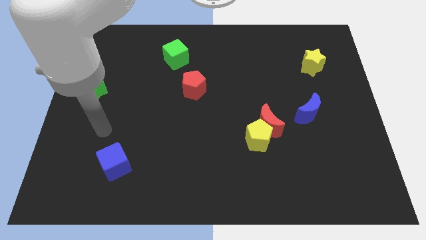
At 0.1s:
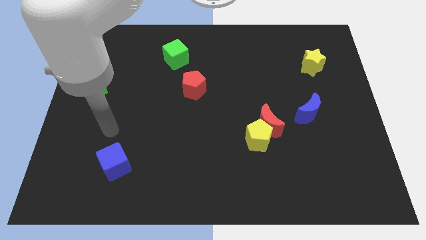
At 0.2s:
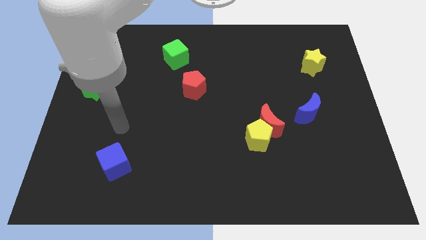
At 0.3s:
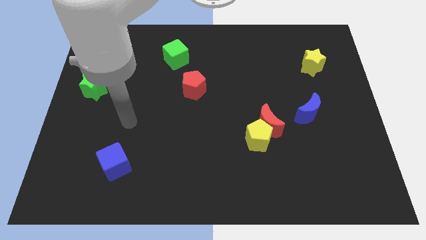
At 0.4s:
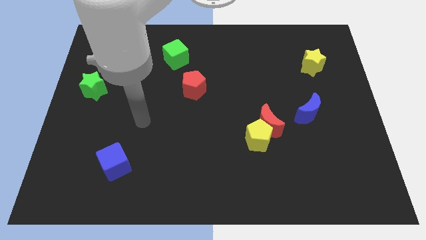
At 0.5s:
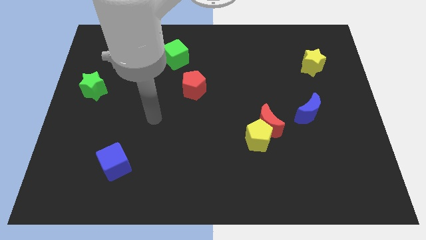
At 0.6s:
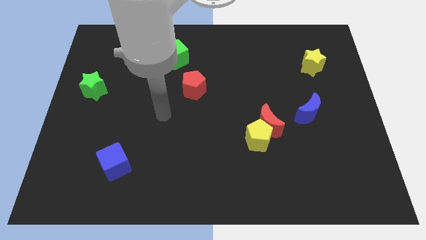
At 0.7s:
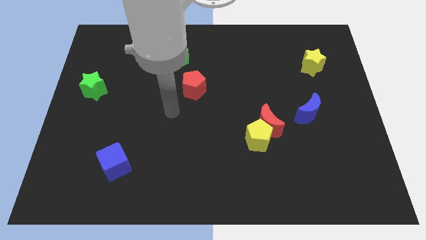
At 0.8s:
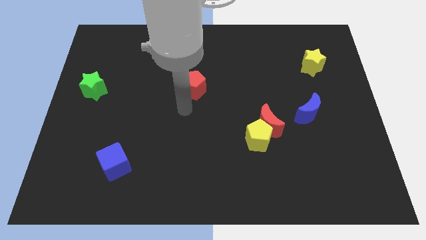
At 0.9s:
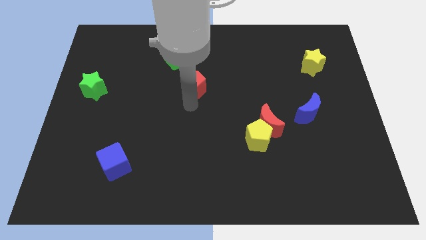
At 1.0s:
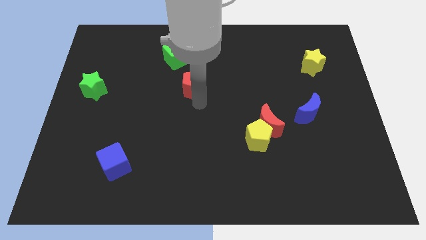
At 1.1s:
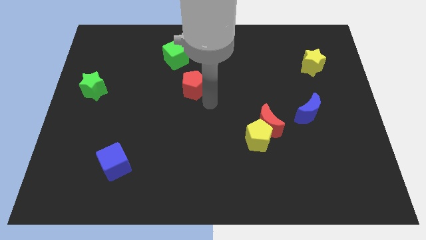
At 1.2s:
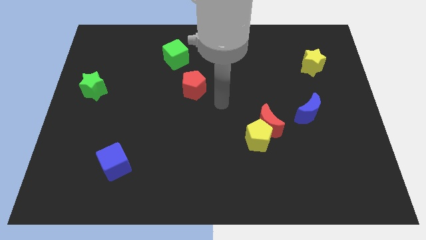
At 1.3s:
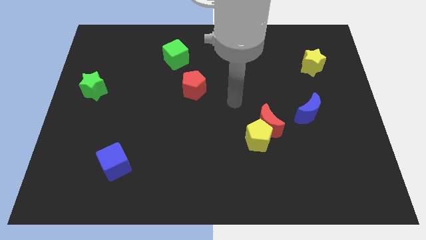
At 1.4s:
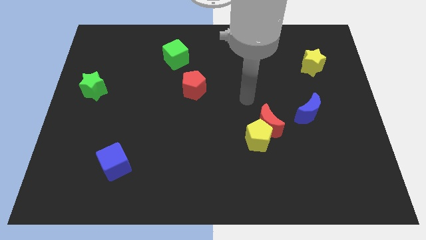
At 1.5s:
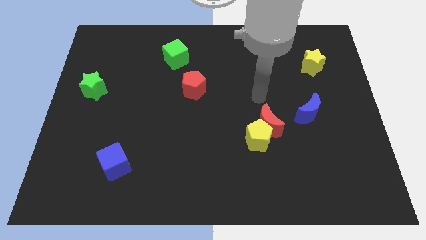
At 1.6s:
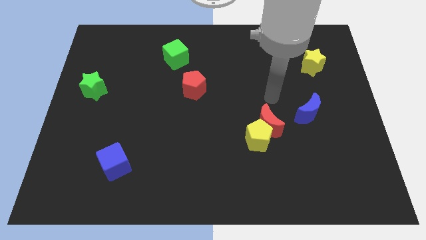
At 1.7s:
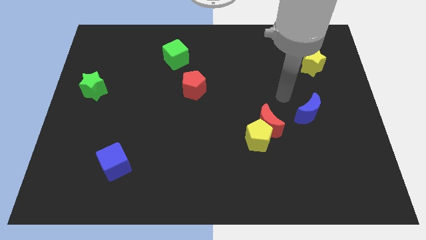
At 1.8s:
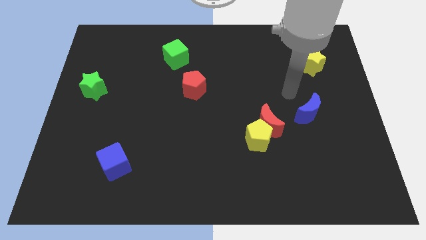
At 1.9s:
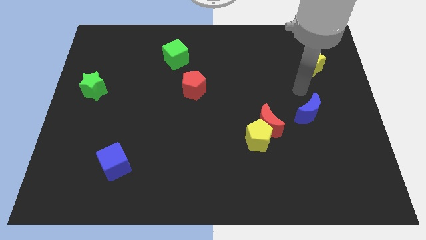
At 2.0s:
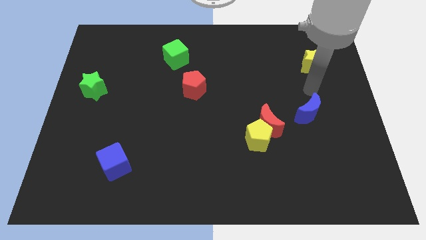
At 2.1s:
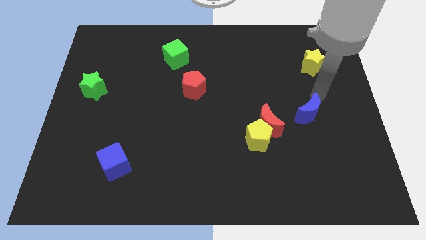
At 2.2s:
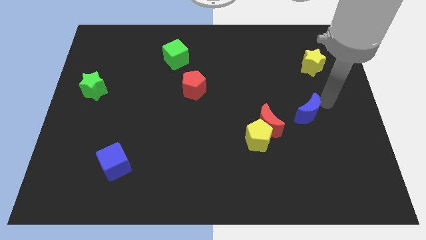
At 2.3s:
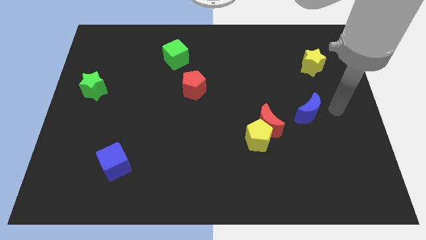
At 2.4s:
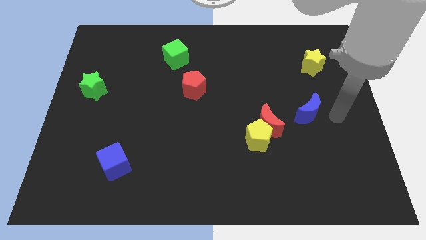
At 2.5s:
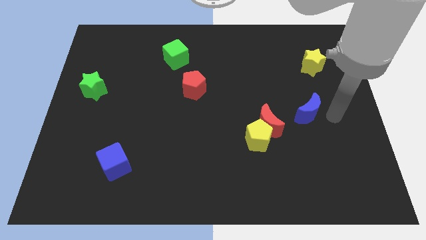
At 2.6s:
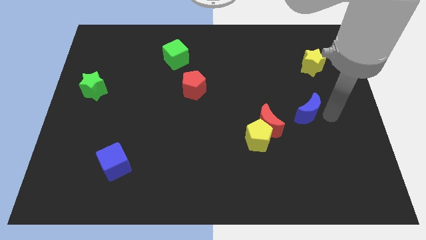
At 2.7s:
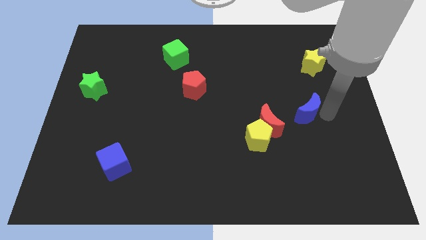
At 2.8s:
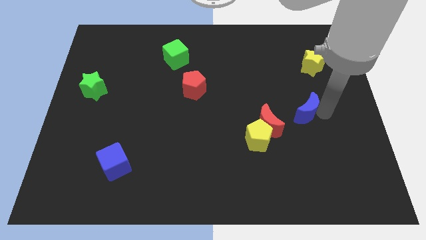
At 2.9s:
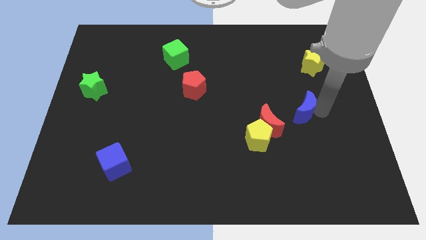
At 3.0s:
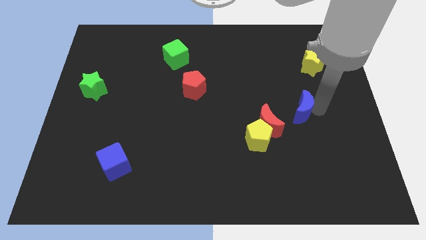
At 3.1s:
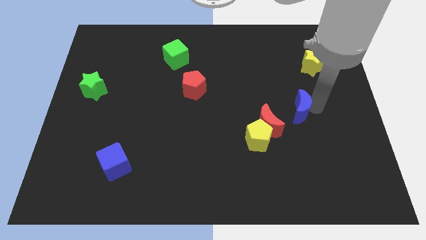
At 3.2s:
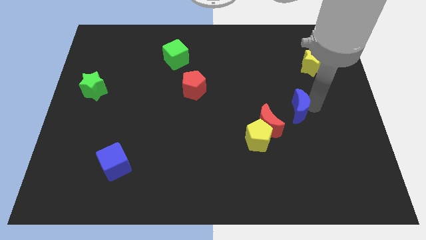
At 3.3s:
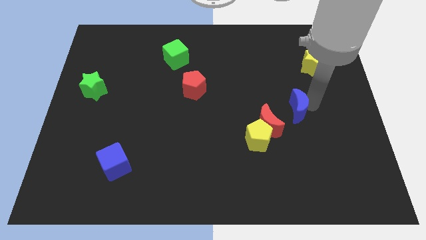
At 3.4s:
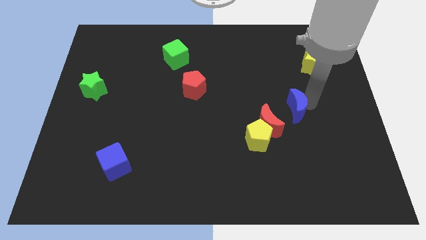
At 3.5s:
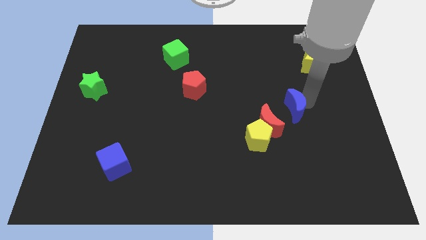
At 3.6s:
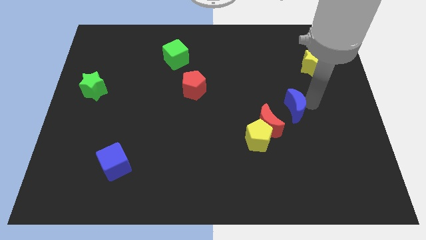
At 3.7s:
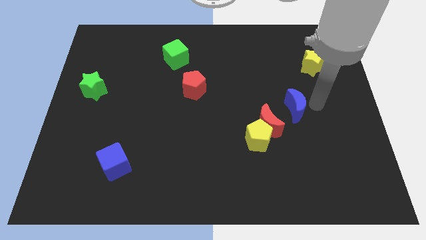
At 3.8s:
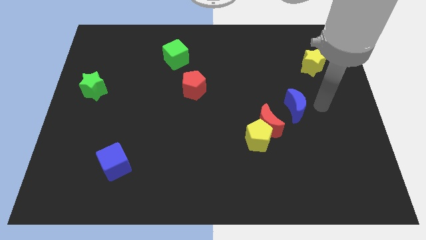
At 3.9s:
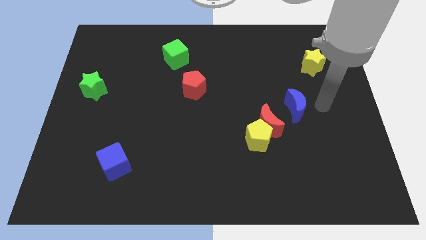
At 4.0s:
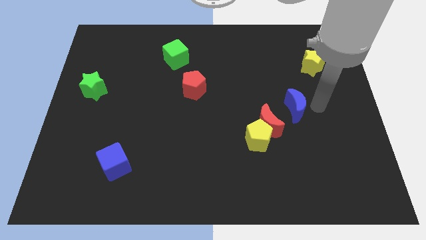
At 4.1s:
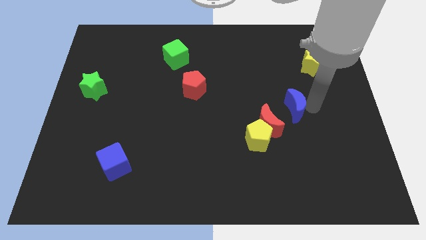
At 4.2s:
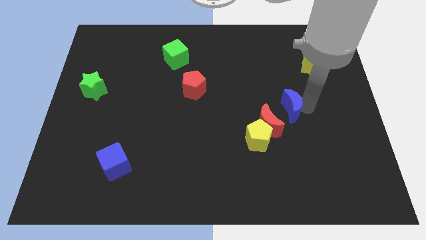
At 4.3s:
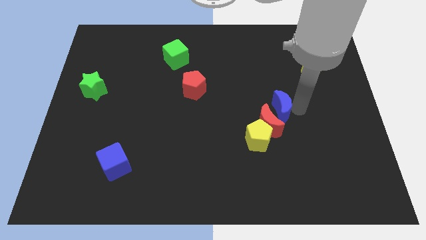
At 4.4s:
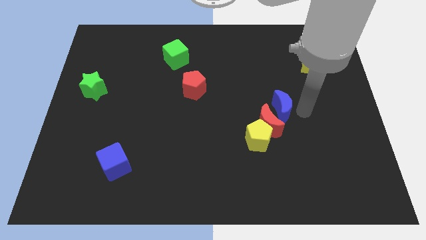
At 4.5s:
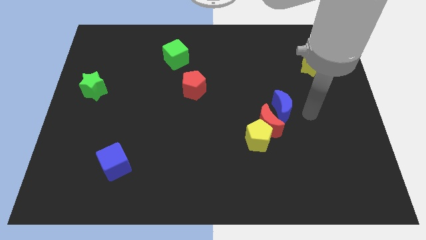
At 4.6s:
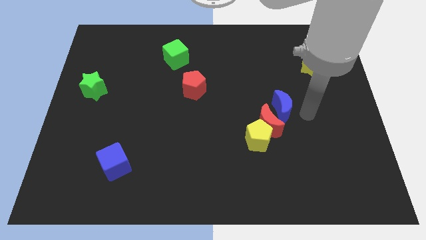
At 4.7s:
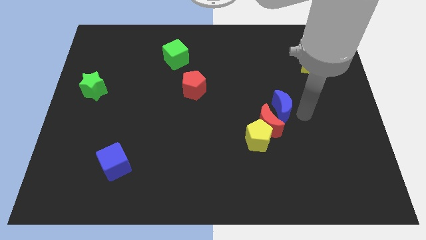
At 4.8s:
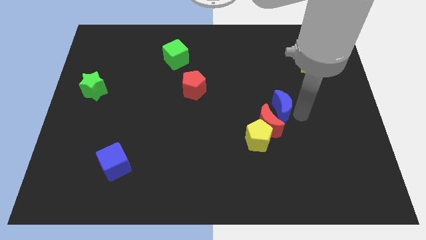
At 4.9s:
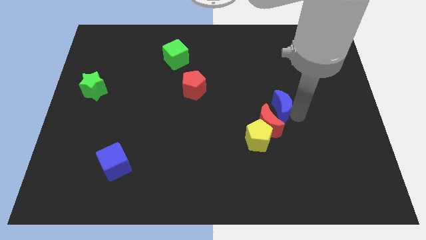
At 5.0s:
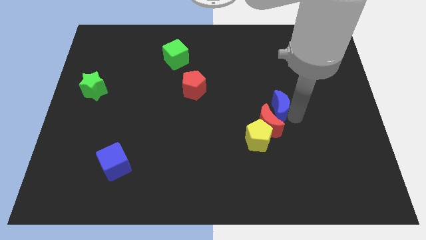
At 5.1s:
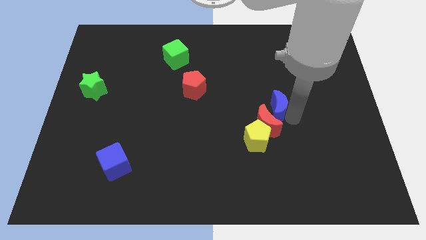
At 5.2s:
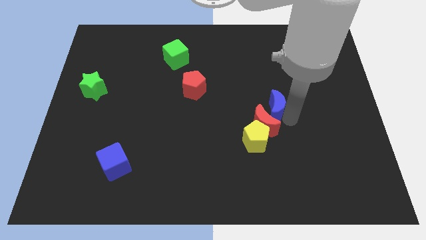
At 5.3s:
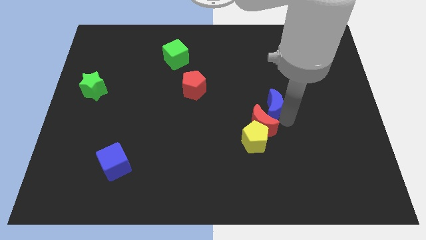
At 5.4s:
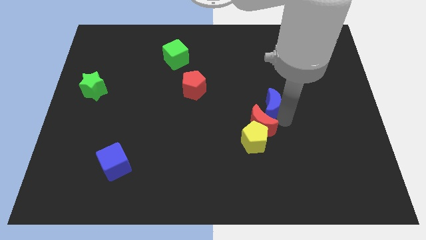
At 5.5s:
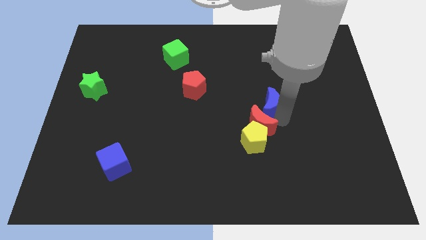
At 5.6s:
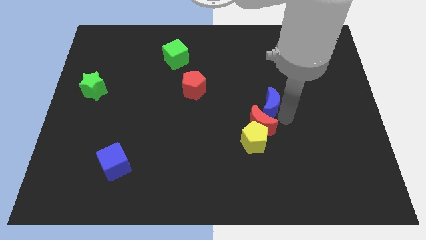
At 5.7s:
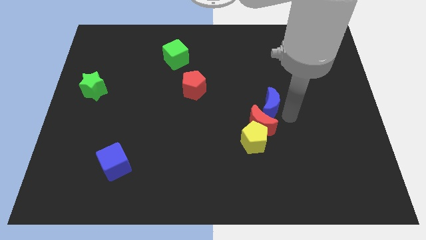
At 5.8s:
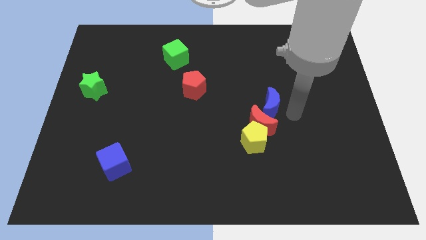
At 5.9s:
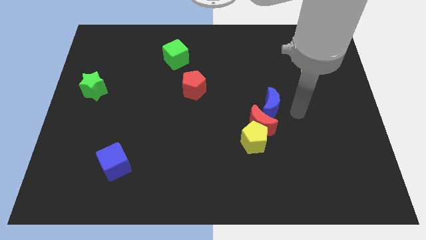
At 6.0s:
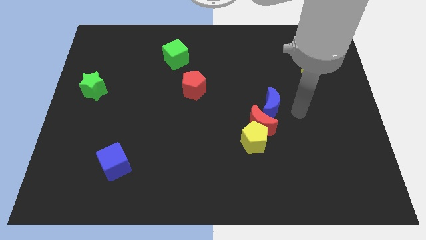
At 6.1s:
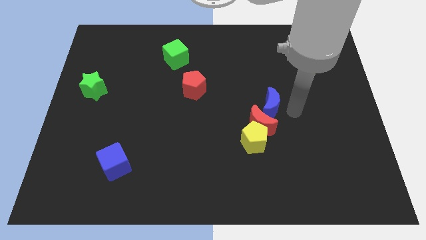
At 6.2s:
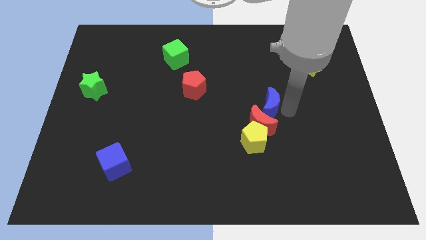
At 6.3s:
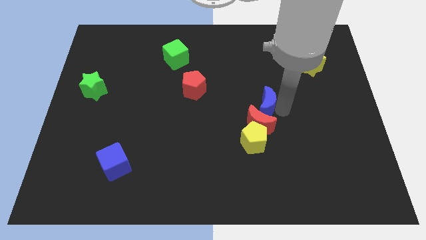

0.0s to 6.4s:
push the blue moon to the center

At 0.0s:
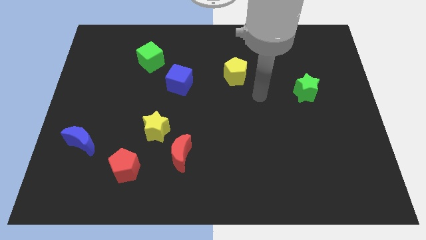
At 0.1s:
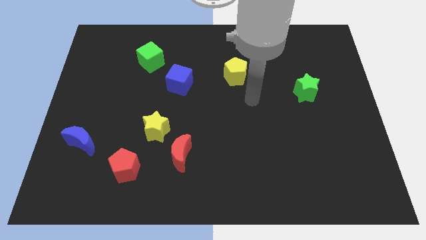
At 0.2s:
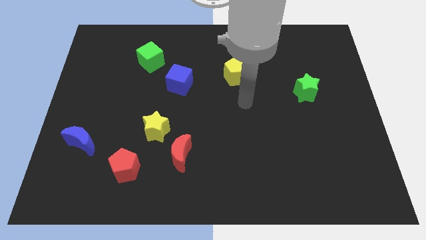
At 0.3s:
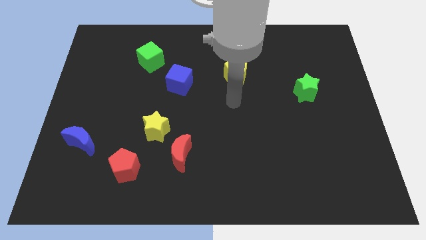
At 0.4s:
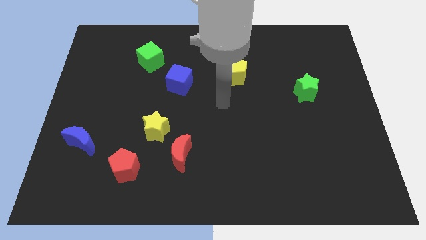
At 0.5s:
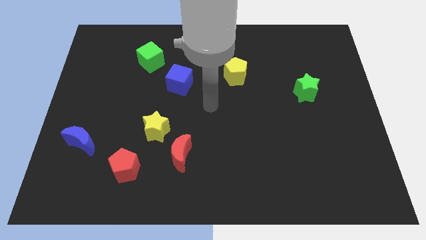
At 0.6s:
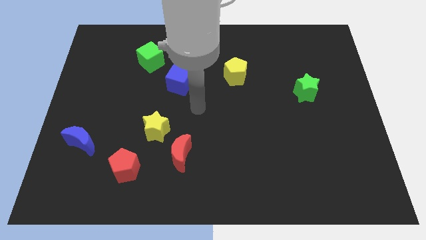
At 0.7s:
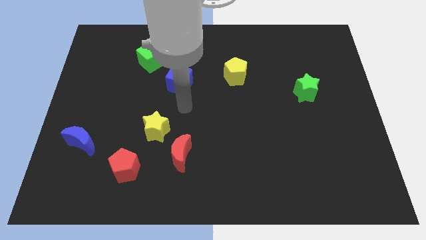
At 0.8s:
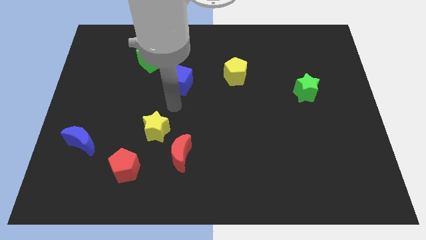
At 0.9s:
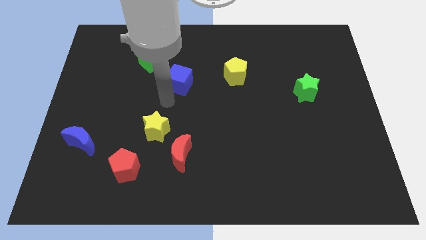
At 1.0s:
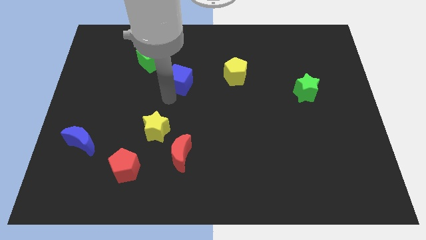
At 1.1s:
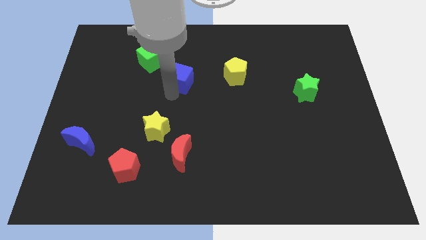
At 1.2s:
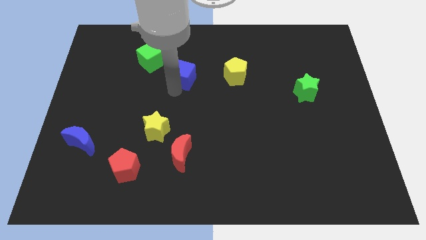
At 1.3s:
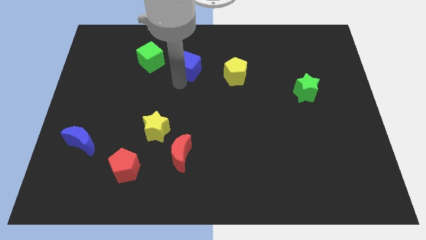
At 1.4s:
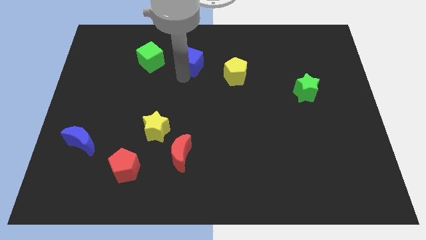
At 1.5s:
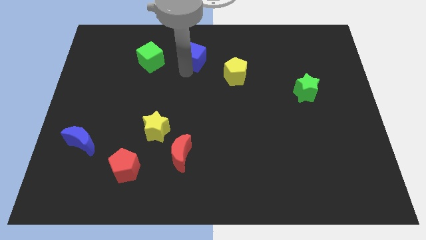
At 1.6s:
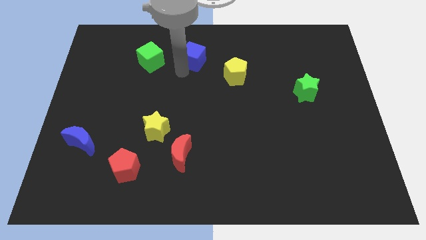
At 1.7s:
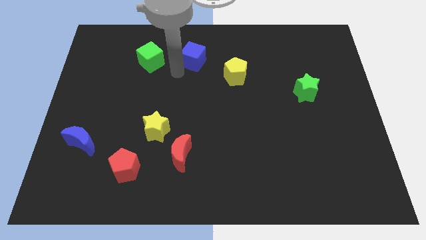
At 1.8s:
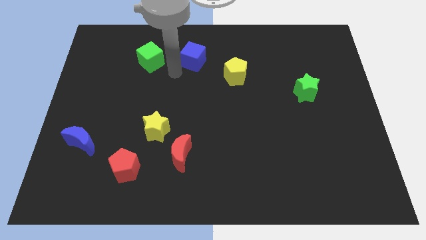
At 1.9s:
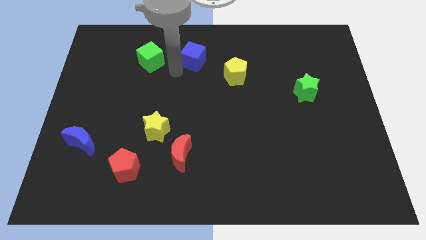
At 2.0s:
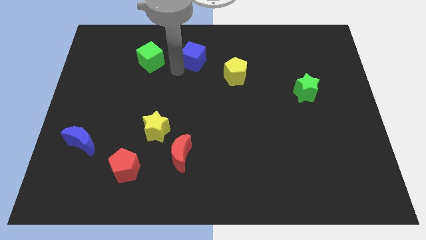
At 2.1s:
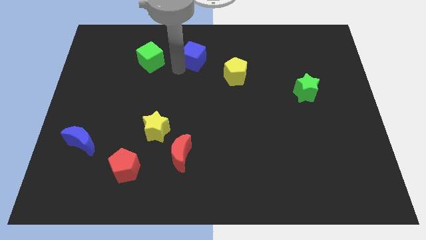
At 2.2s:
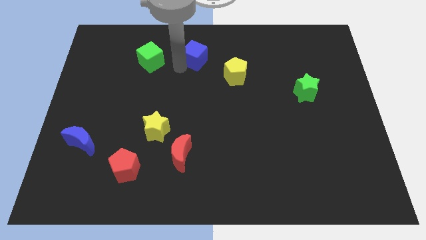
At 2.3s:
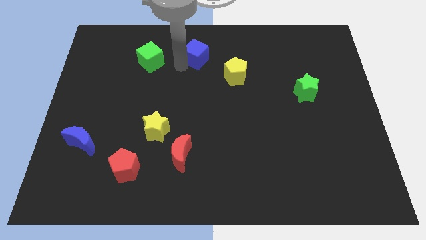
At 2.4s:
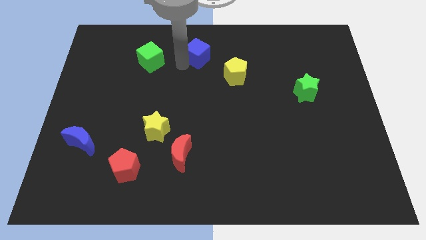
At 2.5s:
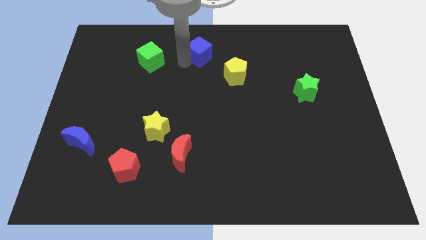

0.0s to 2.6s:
move the blue cube to the top
